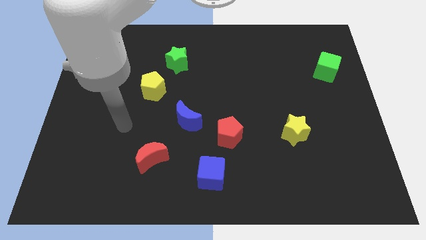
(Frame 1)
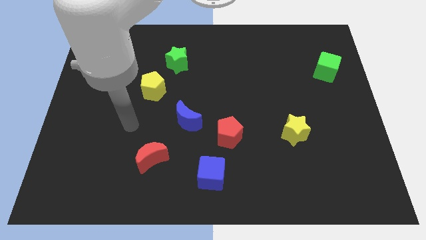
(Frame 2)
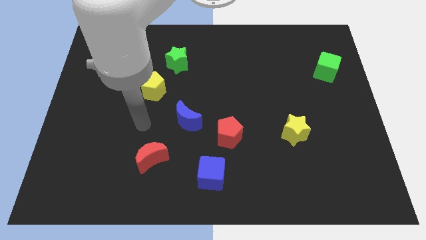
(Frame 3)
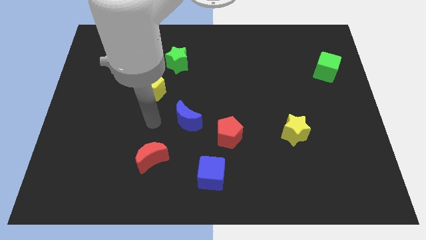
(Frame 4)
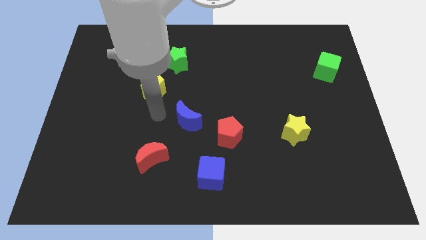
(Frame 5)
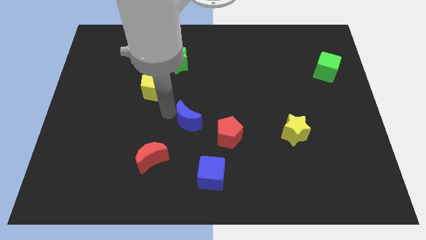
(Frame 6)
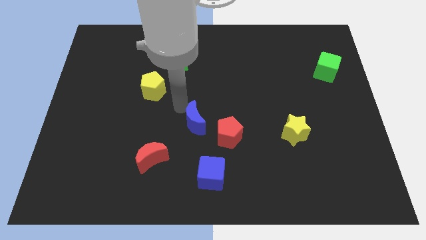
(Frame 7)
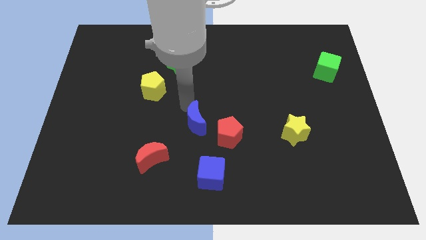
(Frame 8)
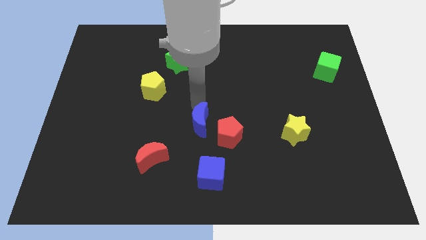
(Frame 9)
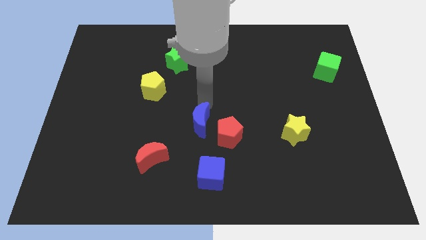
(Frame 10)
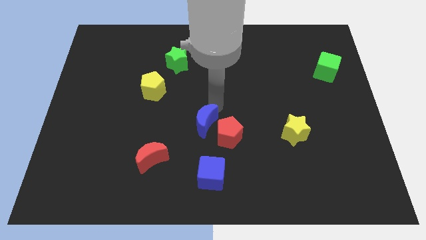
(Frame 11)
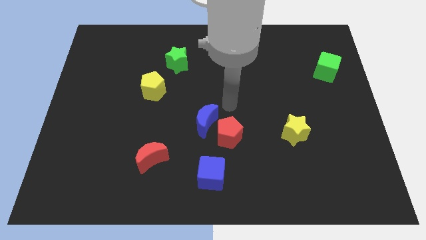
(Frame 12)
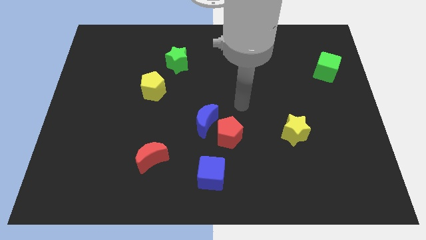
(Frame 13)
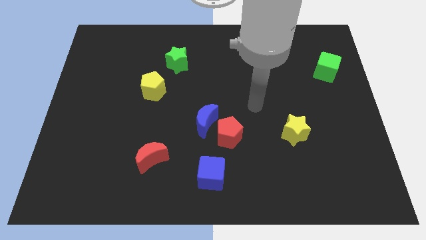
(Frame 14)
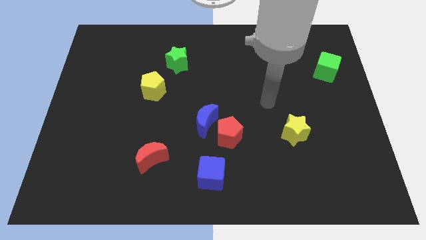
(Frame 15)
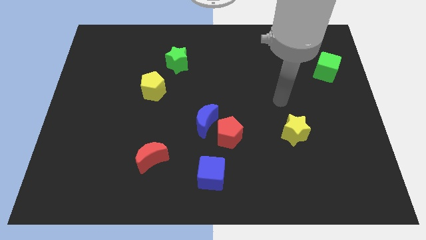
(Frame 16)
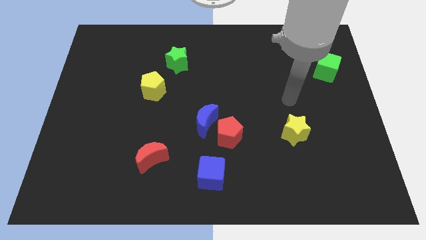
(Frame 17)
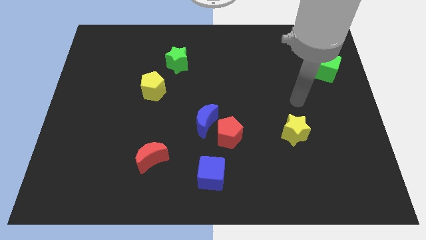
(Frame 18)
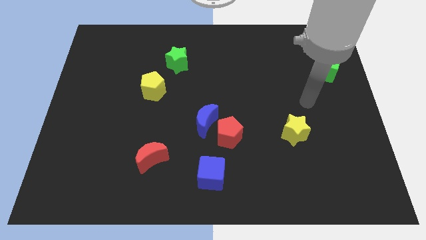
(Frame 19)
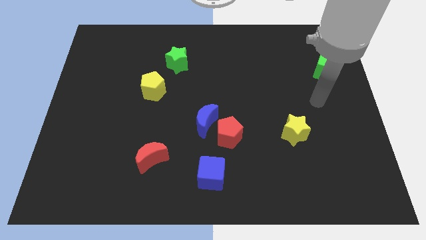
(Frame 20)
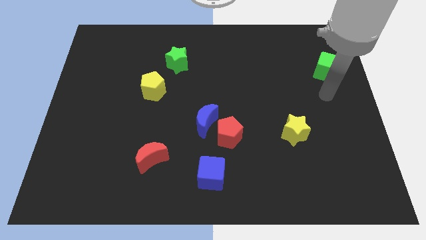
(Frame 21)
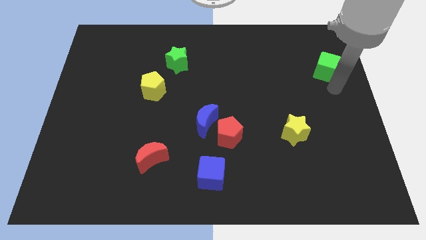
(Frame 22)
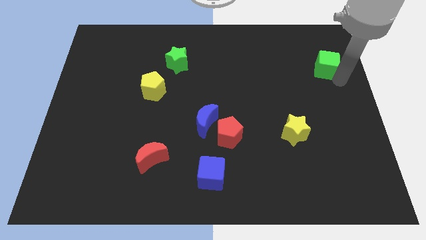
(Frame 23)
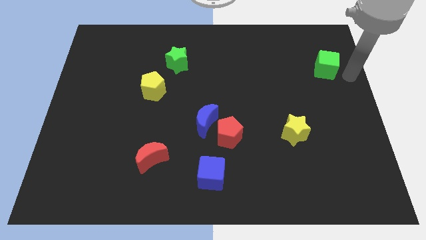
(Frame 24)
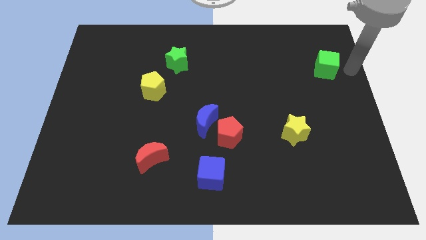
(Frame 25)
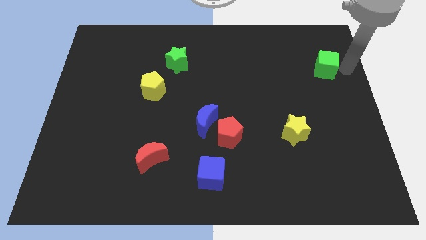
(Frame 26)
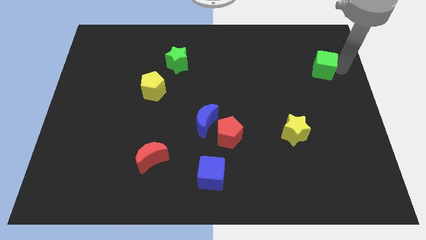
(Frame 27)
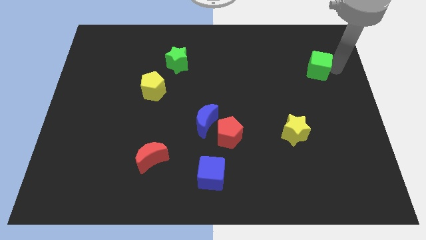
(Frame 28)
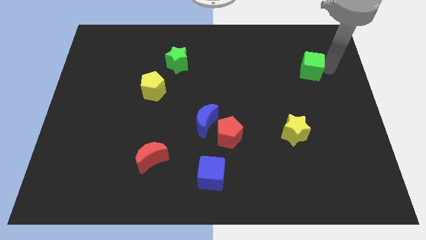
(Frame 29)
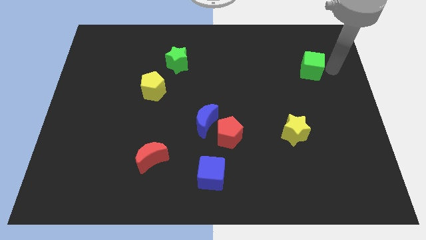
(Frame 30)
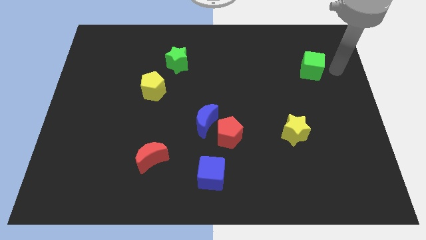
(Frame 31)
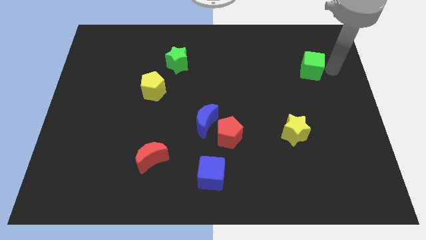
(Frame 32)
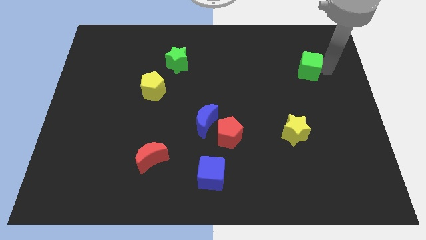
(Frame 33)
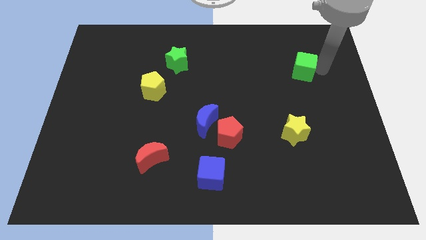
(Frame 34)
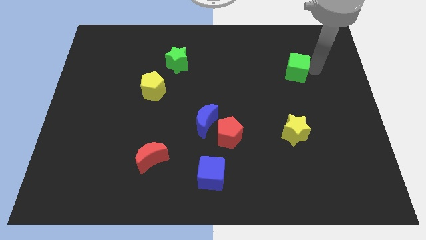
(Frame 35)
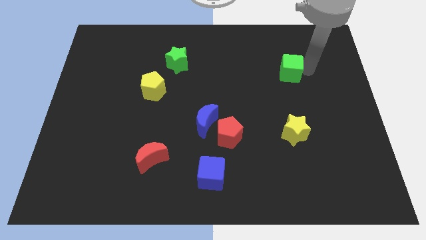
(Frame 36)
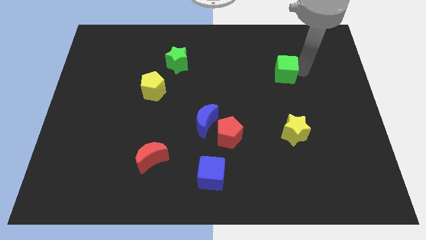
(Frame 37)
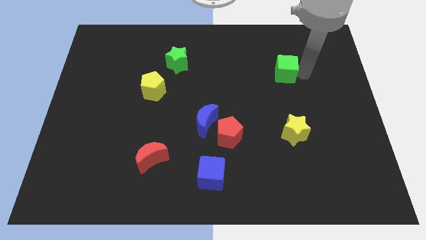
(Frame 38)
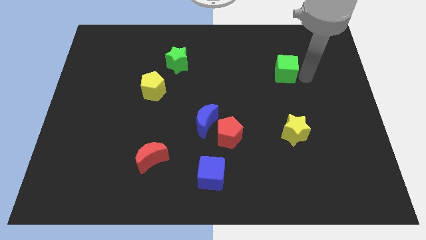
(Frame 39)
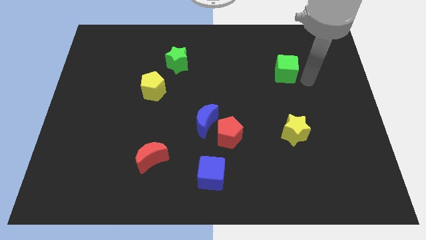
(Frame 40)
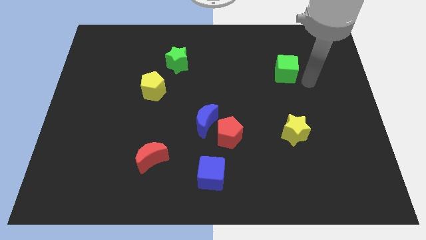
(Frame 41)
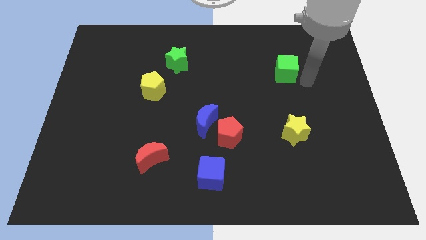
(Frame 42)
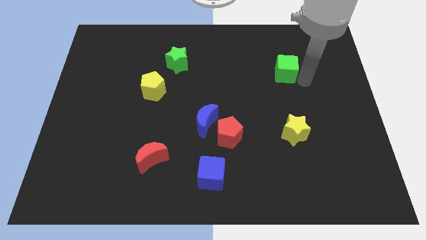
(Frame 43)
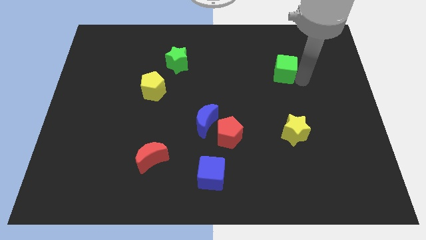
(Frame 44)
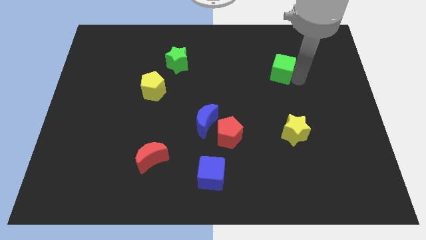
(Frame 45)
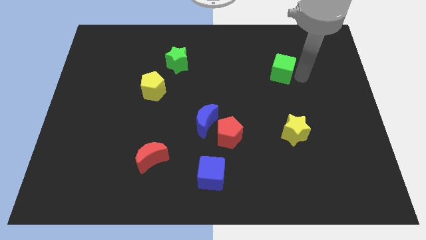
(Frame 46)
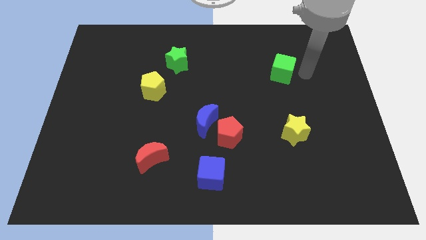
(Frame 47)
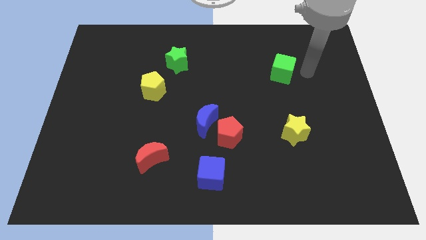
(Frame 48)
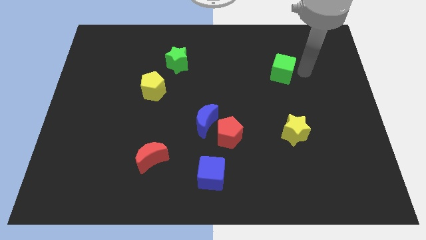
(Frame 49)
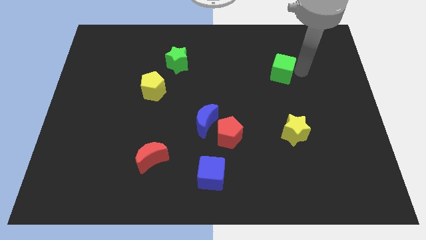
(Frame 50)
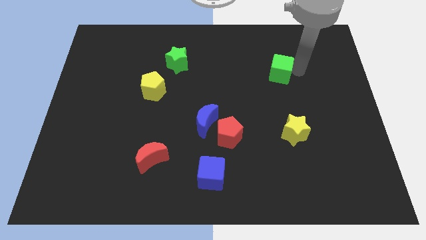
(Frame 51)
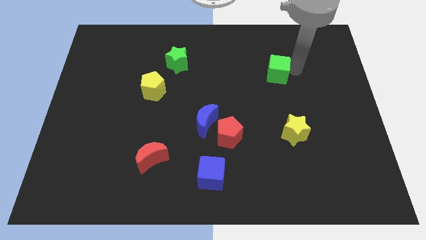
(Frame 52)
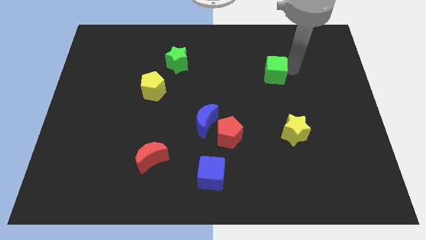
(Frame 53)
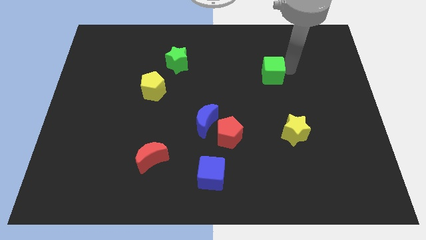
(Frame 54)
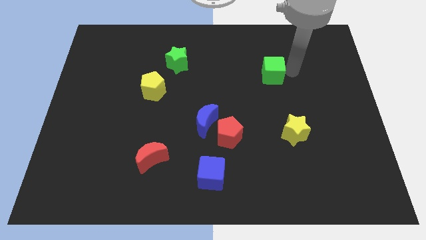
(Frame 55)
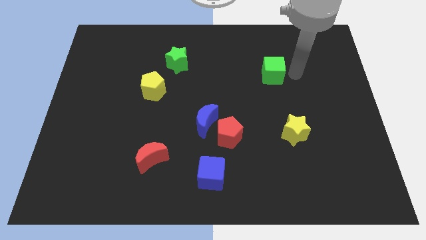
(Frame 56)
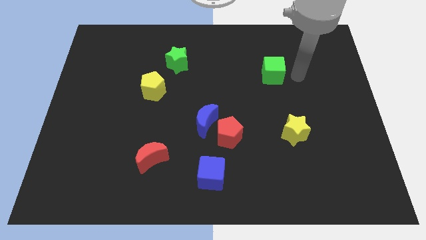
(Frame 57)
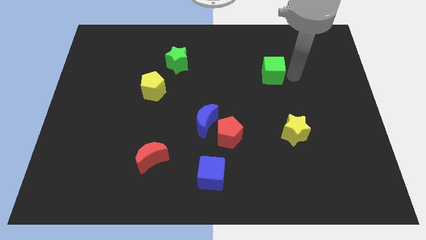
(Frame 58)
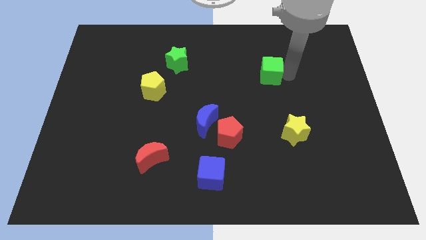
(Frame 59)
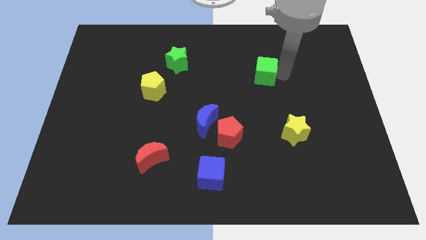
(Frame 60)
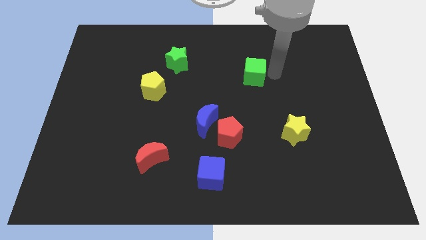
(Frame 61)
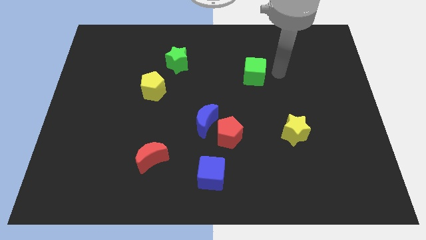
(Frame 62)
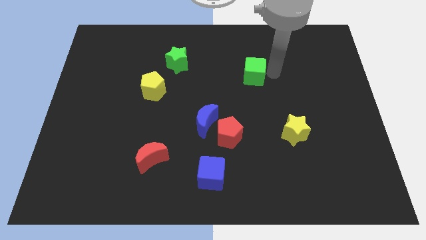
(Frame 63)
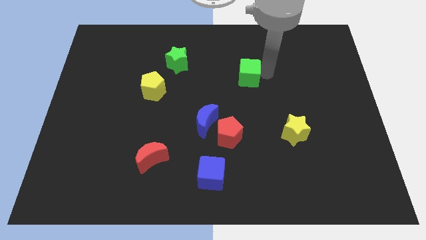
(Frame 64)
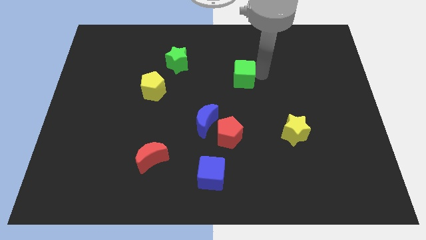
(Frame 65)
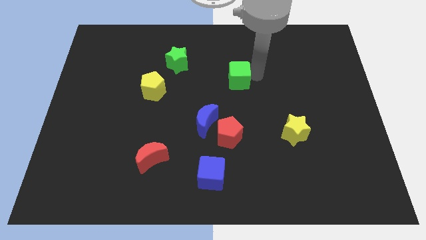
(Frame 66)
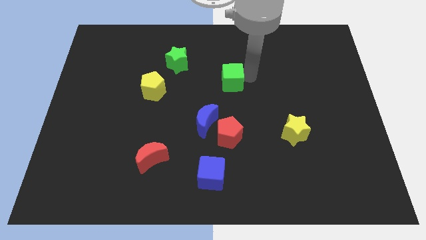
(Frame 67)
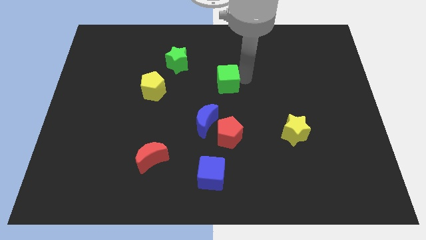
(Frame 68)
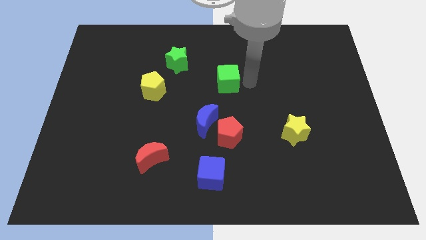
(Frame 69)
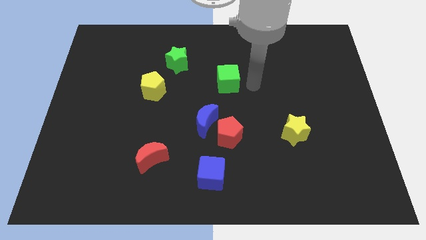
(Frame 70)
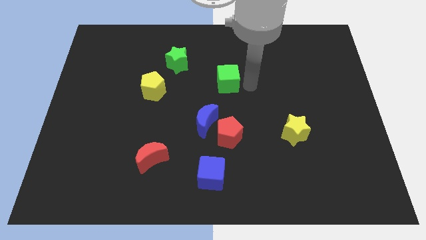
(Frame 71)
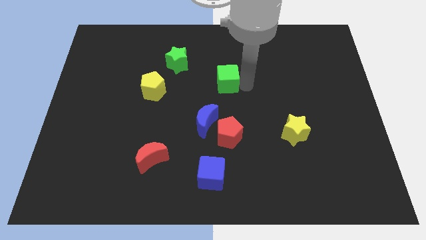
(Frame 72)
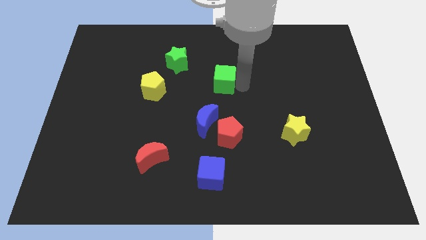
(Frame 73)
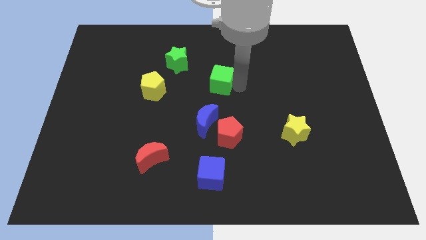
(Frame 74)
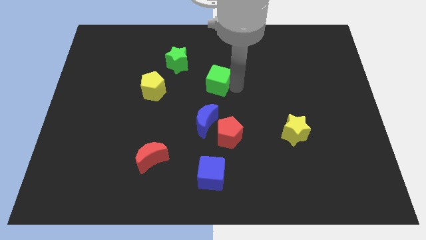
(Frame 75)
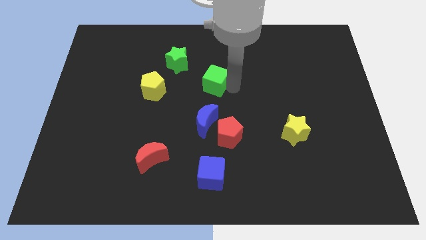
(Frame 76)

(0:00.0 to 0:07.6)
move the green cube to the bottom right side of the green star
